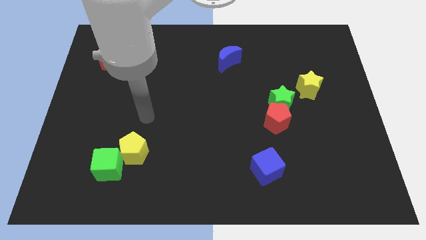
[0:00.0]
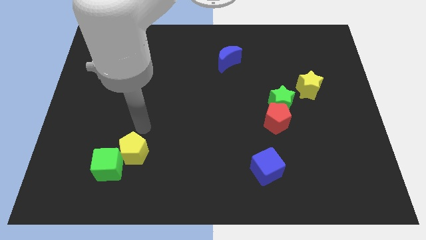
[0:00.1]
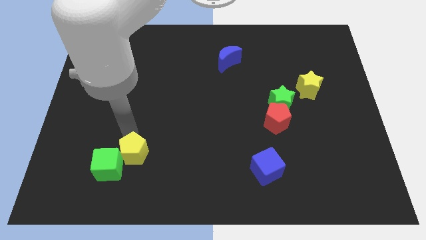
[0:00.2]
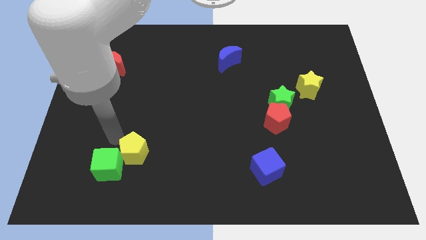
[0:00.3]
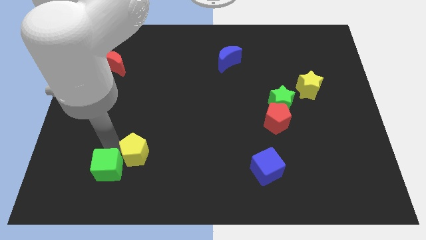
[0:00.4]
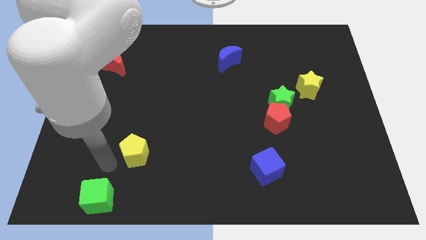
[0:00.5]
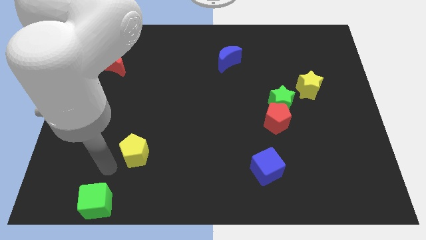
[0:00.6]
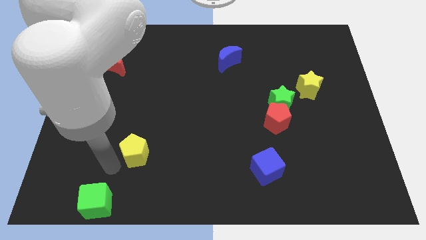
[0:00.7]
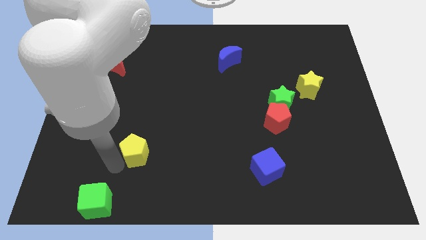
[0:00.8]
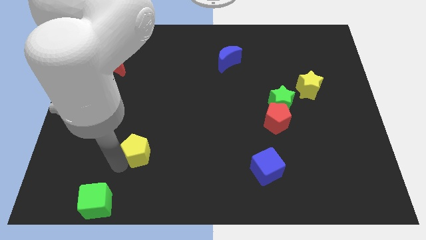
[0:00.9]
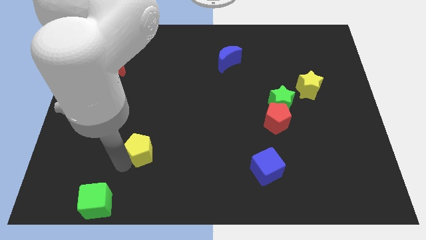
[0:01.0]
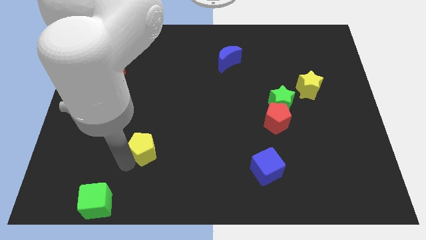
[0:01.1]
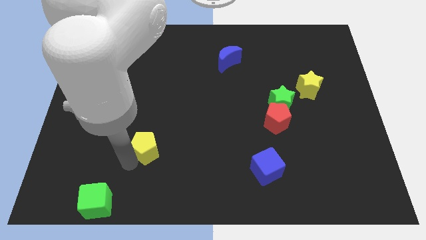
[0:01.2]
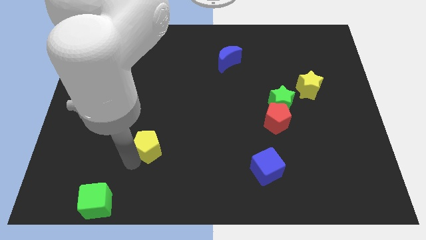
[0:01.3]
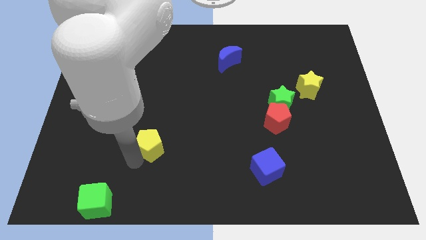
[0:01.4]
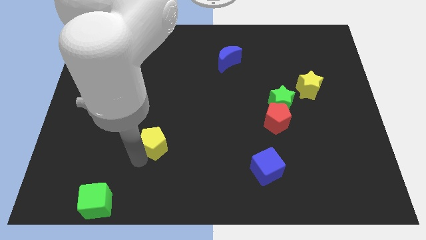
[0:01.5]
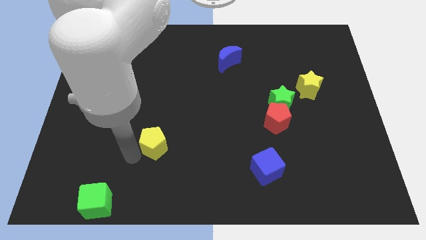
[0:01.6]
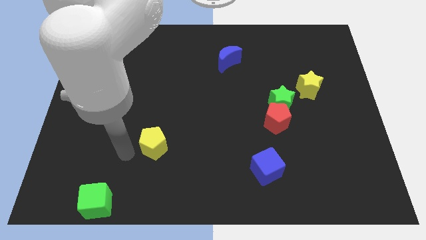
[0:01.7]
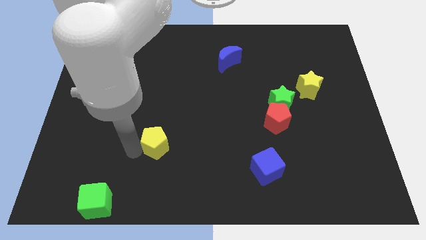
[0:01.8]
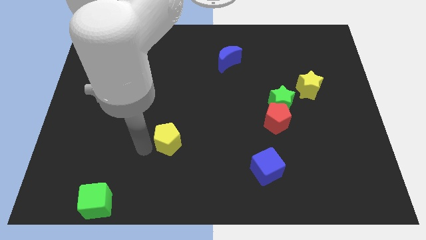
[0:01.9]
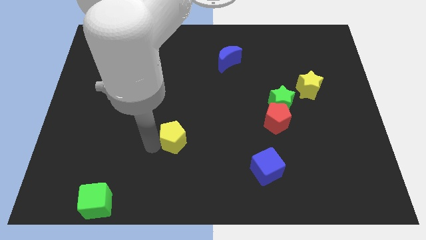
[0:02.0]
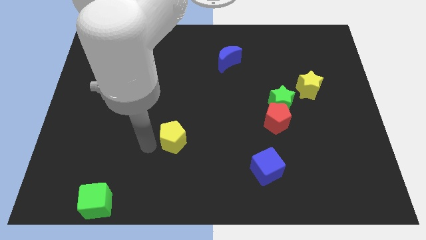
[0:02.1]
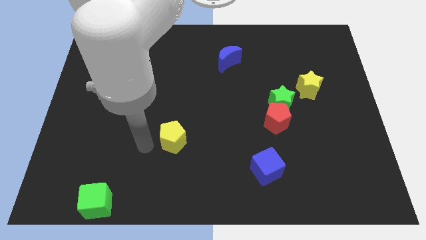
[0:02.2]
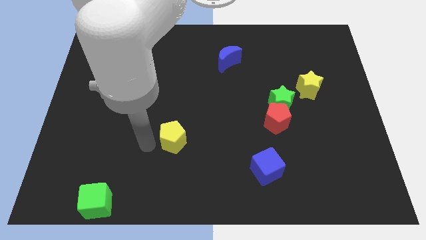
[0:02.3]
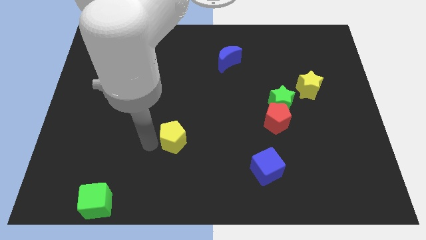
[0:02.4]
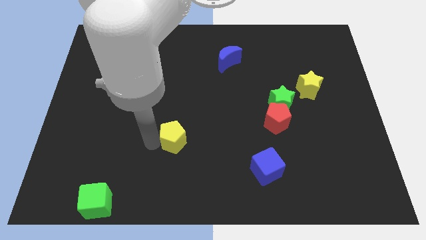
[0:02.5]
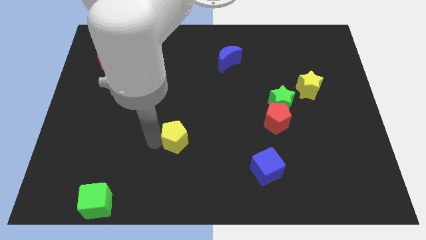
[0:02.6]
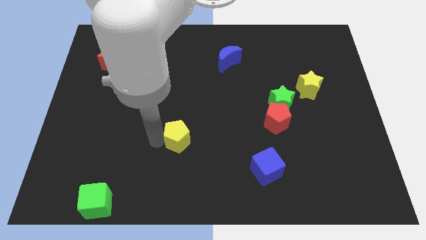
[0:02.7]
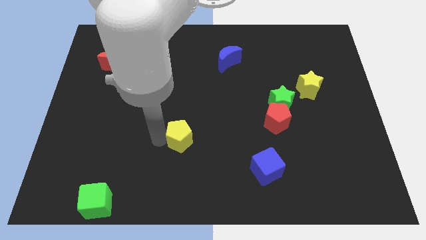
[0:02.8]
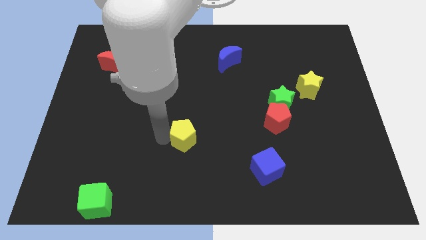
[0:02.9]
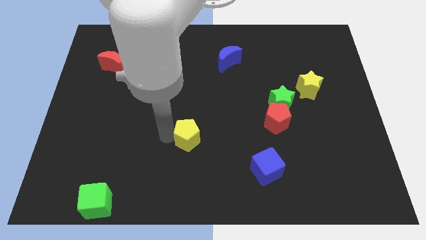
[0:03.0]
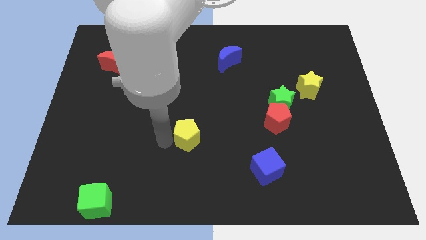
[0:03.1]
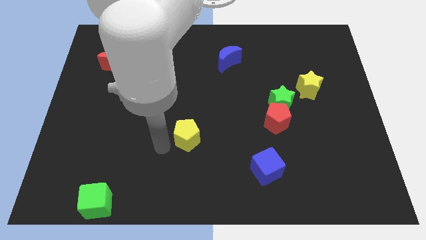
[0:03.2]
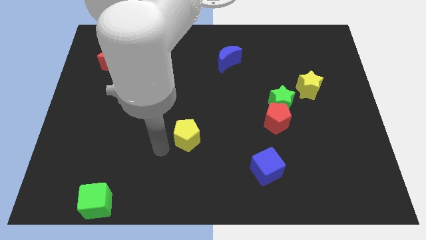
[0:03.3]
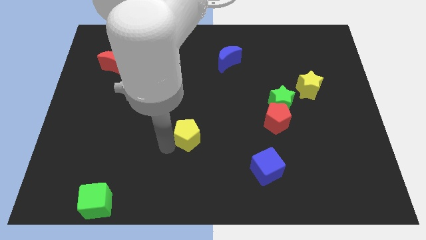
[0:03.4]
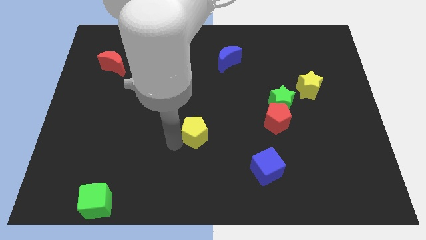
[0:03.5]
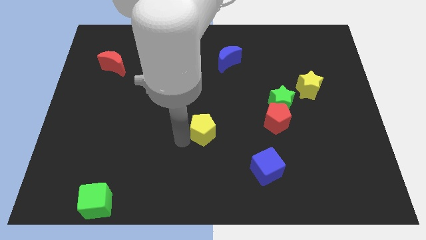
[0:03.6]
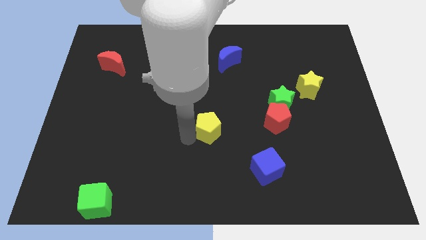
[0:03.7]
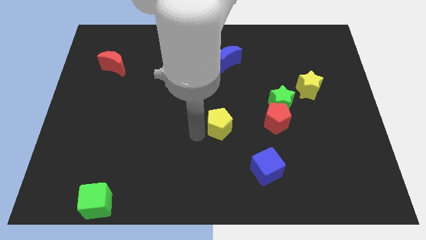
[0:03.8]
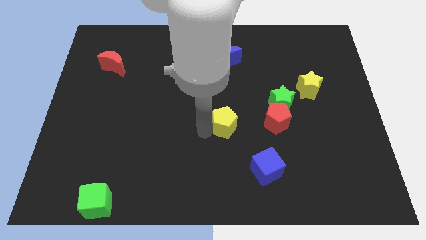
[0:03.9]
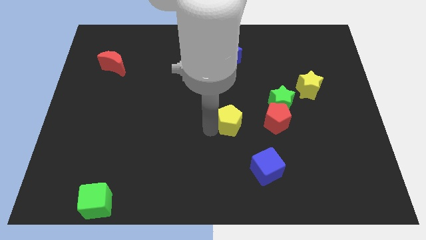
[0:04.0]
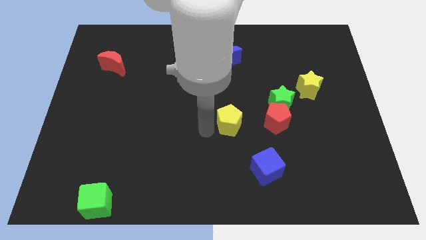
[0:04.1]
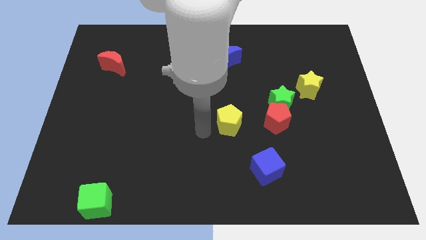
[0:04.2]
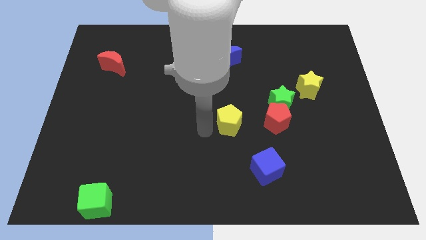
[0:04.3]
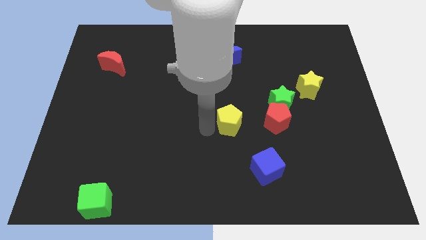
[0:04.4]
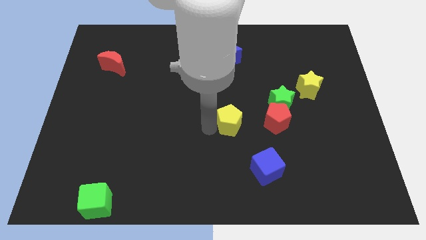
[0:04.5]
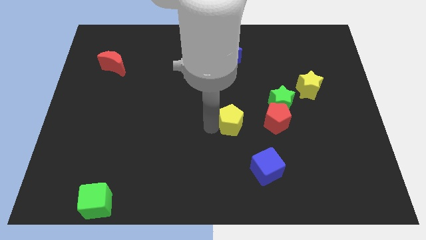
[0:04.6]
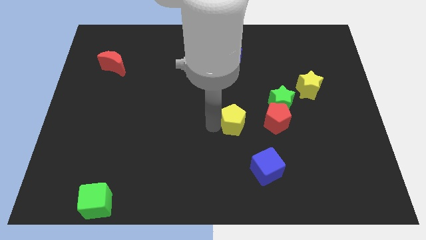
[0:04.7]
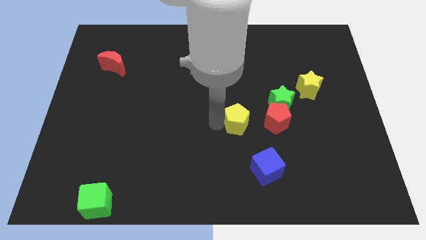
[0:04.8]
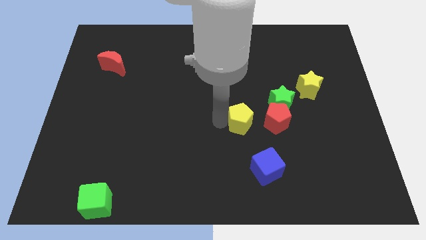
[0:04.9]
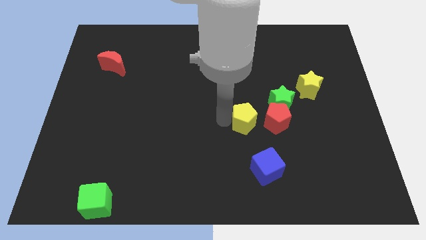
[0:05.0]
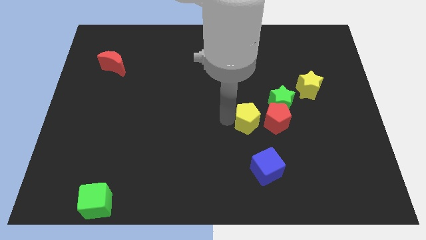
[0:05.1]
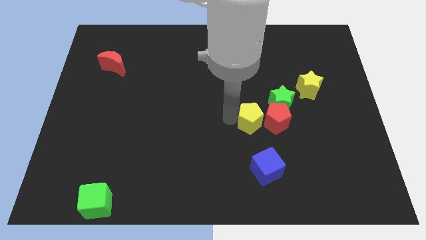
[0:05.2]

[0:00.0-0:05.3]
move the yellow pentagon to the red pentagon

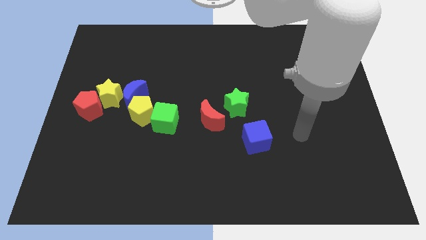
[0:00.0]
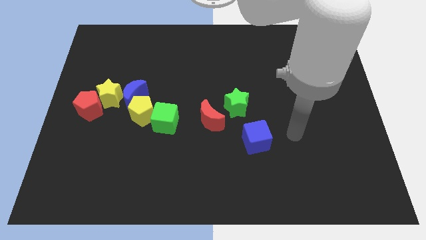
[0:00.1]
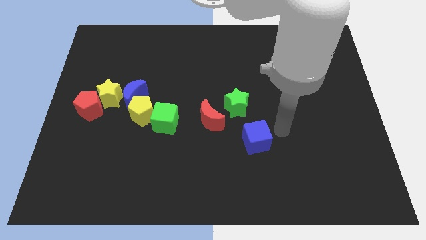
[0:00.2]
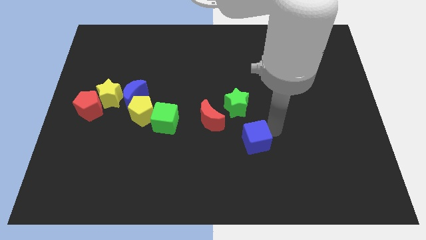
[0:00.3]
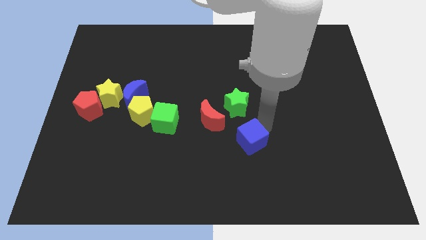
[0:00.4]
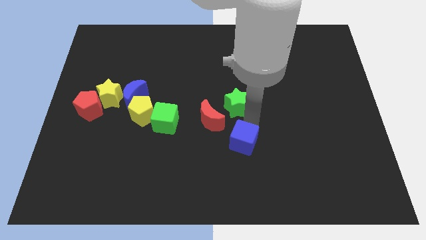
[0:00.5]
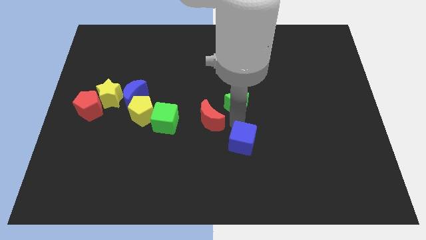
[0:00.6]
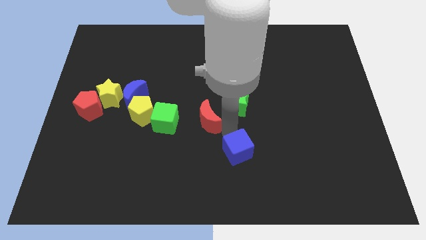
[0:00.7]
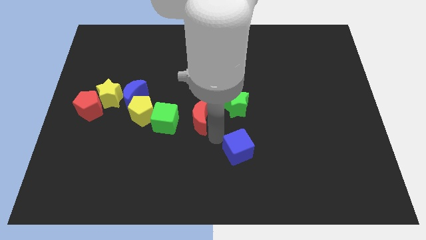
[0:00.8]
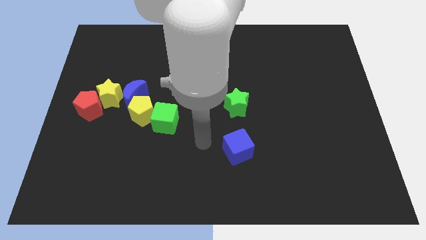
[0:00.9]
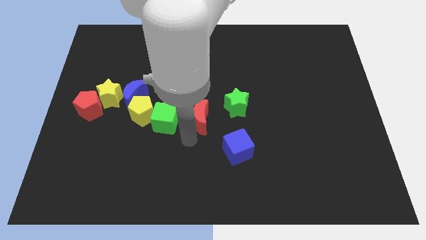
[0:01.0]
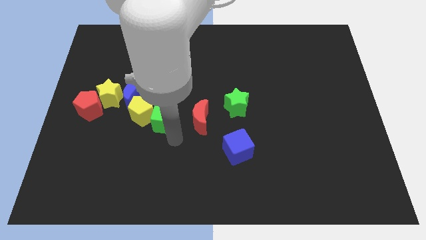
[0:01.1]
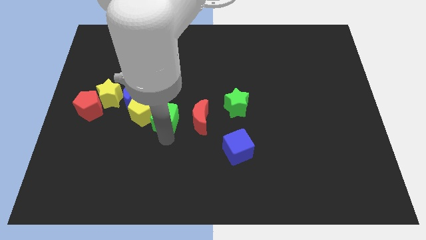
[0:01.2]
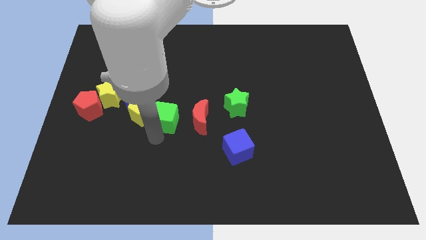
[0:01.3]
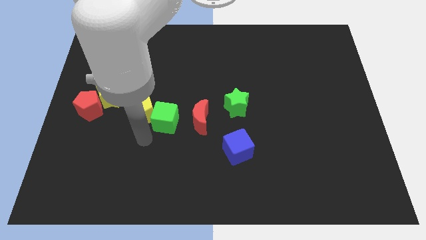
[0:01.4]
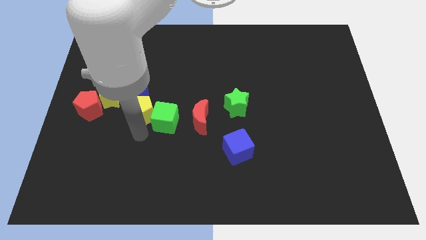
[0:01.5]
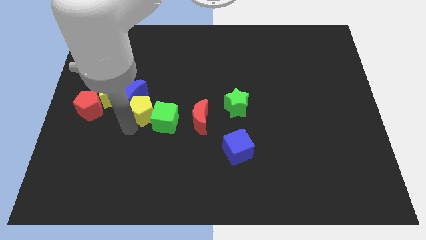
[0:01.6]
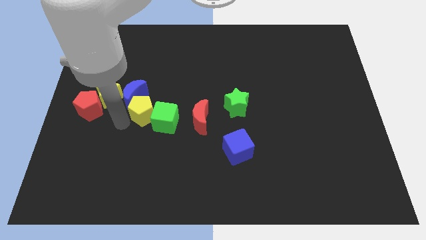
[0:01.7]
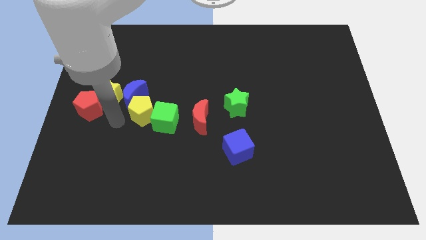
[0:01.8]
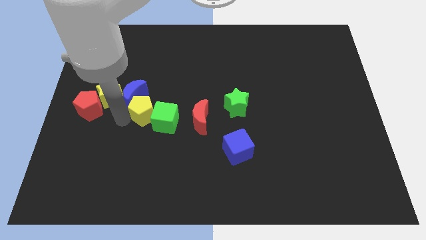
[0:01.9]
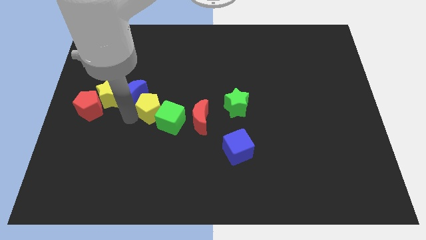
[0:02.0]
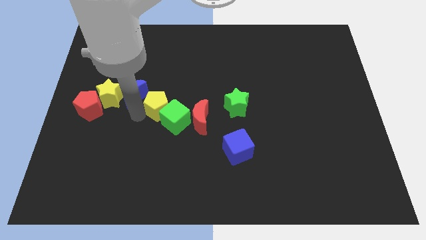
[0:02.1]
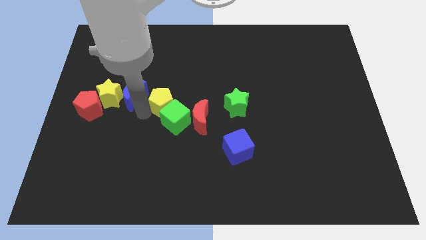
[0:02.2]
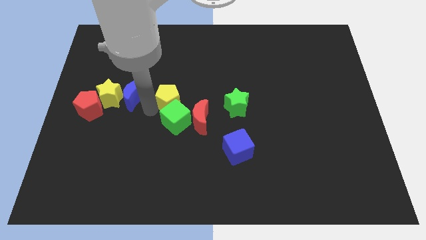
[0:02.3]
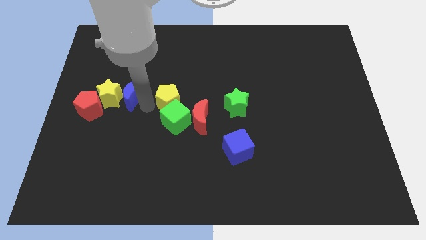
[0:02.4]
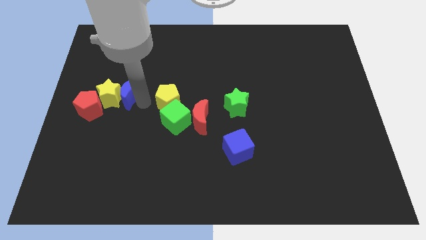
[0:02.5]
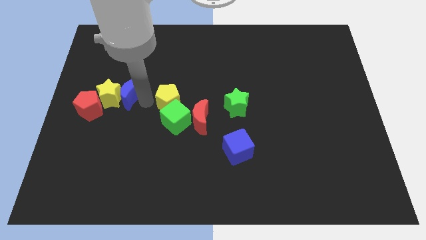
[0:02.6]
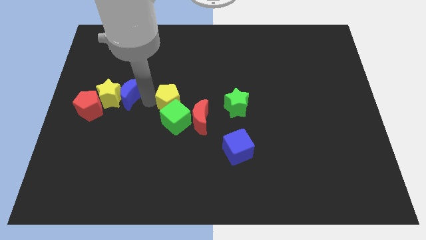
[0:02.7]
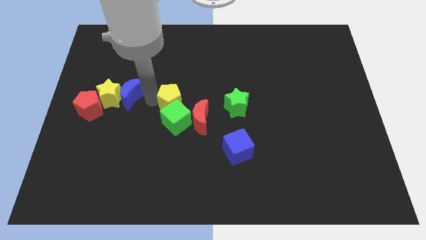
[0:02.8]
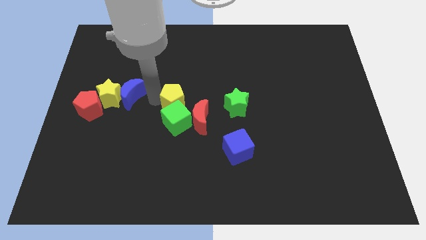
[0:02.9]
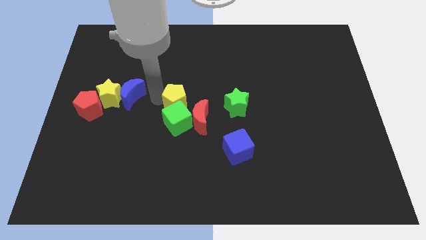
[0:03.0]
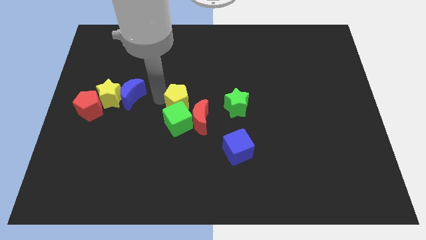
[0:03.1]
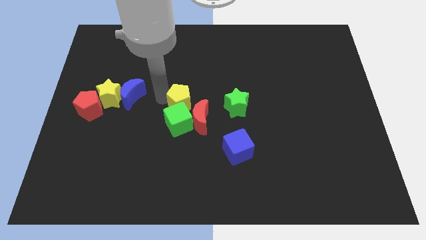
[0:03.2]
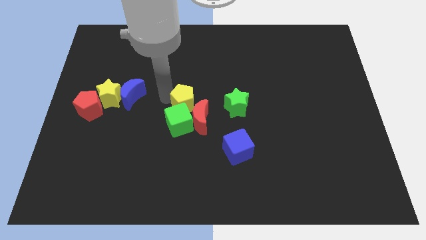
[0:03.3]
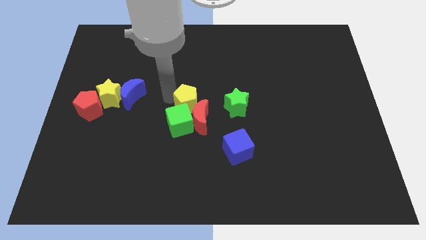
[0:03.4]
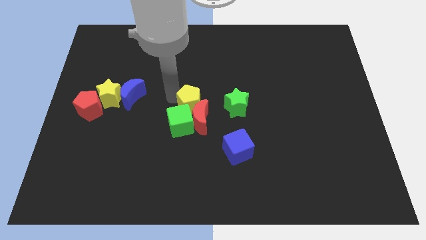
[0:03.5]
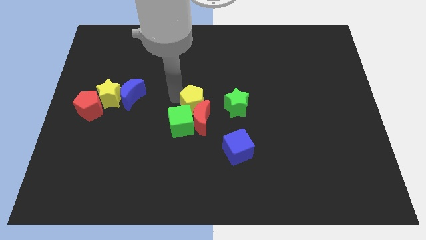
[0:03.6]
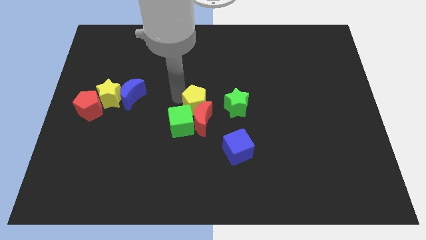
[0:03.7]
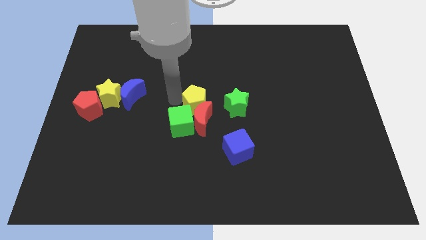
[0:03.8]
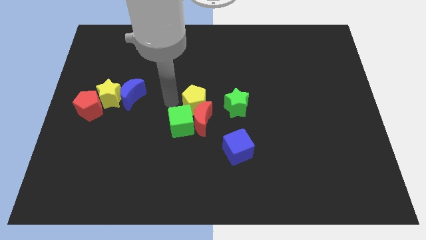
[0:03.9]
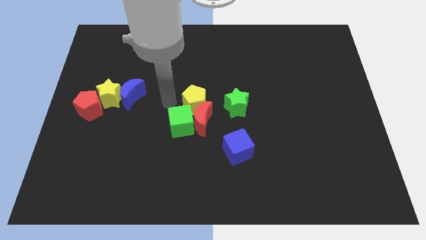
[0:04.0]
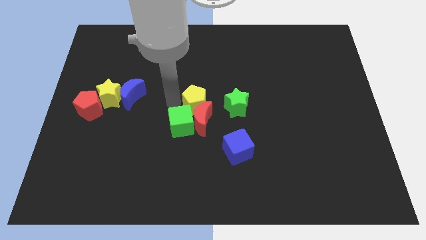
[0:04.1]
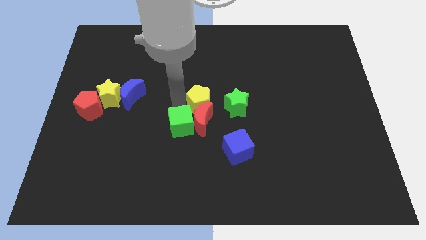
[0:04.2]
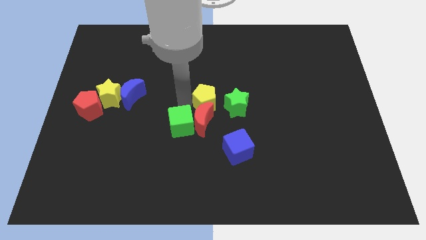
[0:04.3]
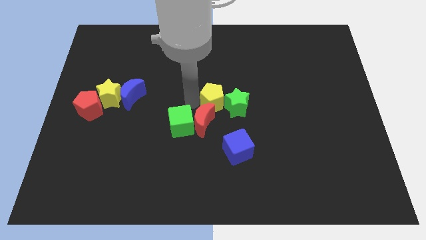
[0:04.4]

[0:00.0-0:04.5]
move the yellow pentagon next to the green star
